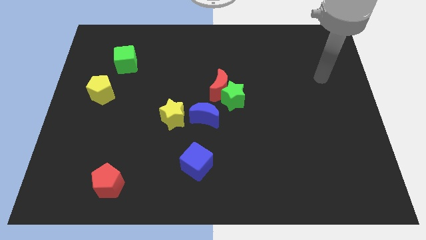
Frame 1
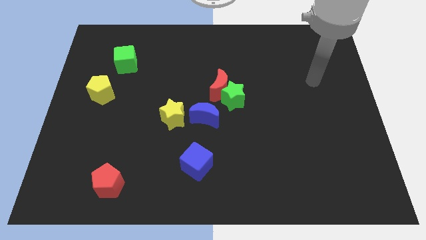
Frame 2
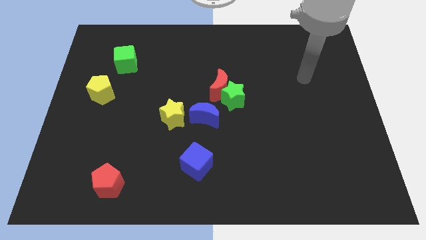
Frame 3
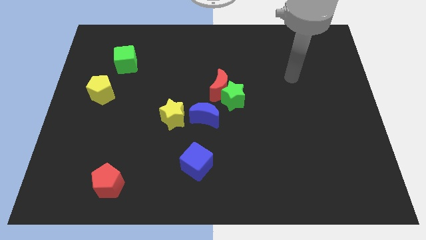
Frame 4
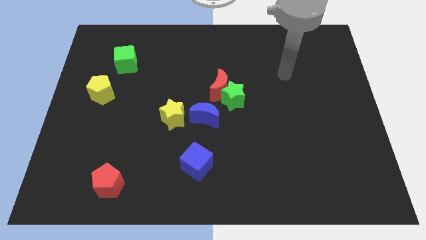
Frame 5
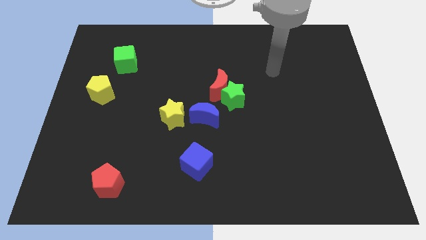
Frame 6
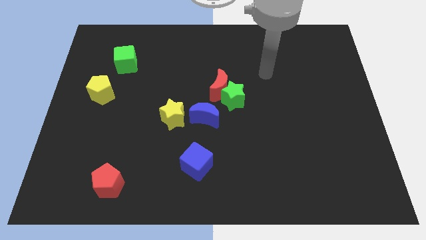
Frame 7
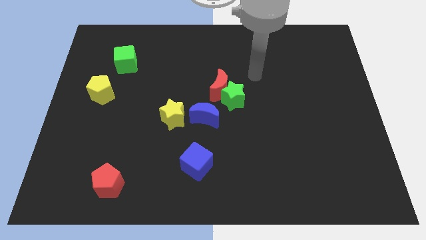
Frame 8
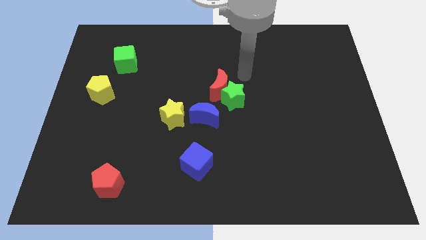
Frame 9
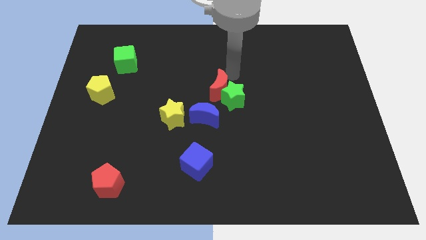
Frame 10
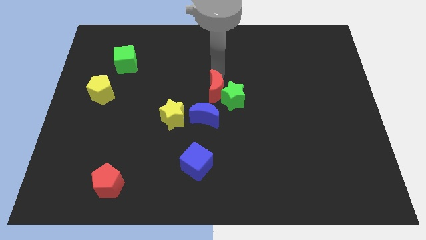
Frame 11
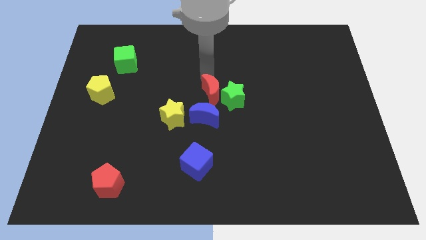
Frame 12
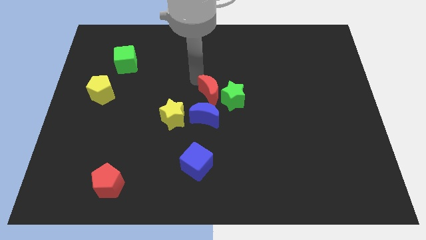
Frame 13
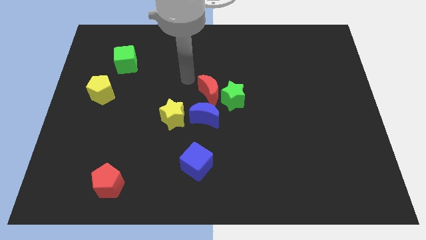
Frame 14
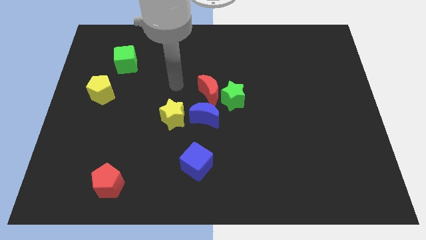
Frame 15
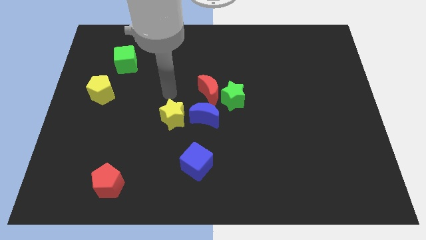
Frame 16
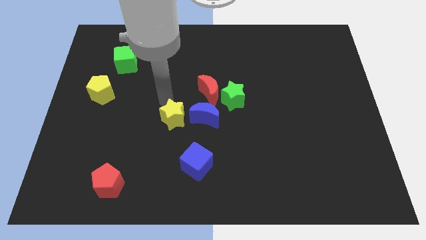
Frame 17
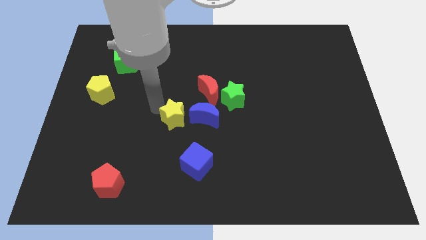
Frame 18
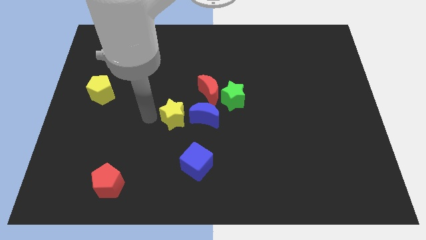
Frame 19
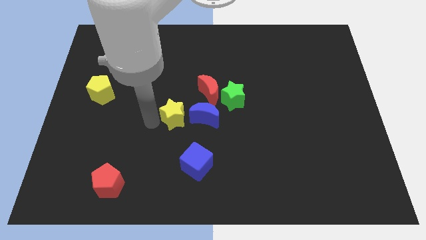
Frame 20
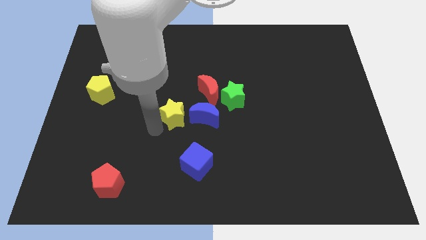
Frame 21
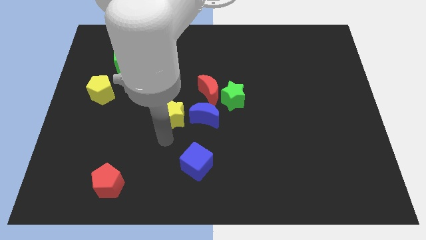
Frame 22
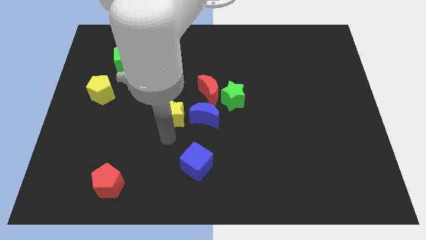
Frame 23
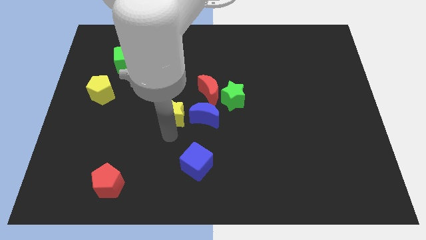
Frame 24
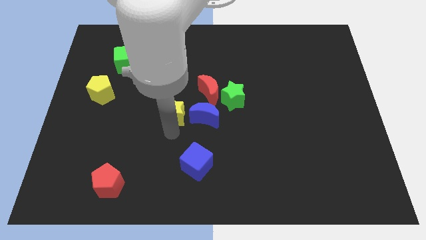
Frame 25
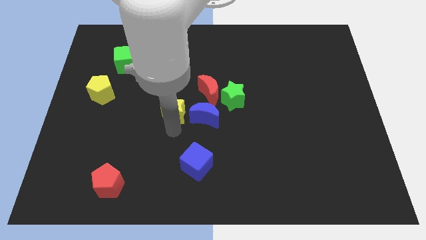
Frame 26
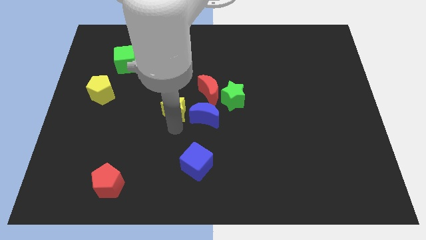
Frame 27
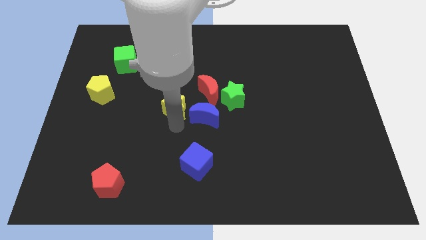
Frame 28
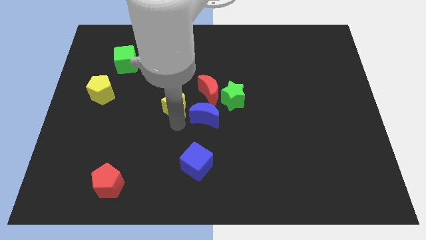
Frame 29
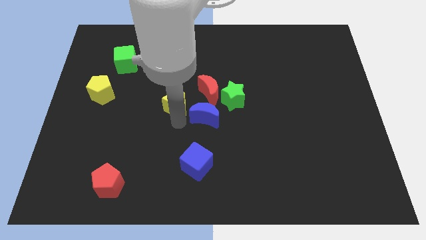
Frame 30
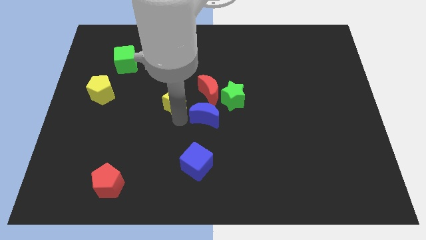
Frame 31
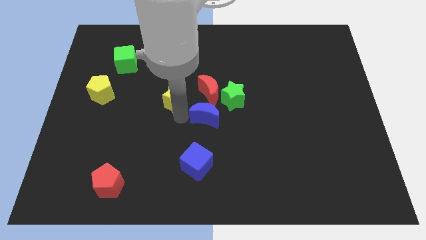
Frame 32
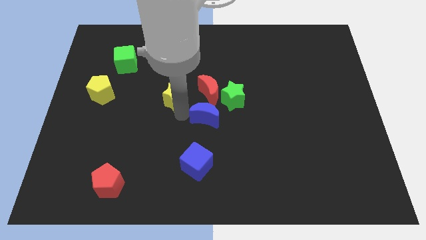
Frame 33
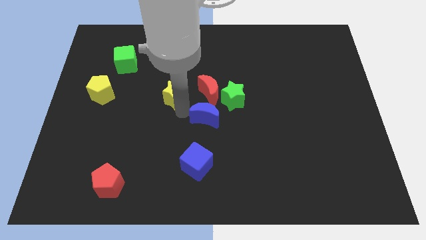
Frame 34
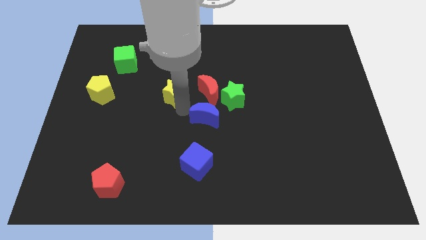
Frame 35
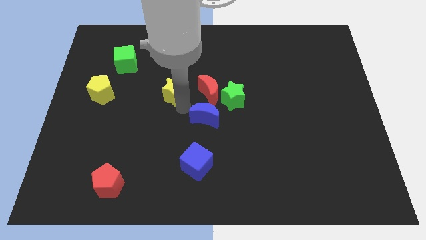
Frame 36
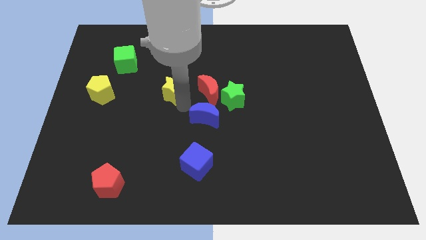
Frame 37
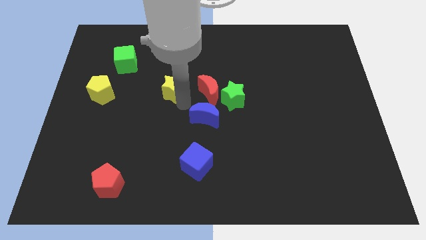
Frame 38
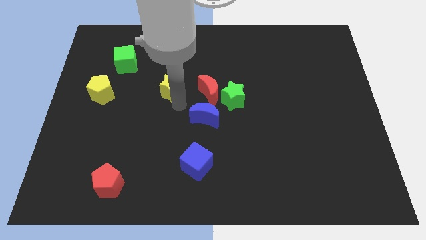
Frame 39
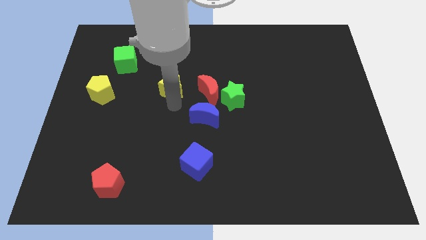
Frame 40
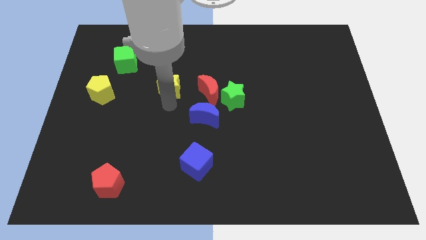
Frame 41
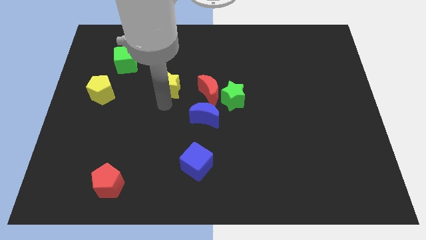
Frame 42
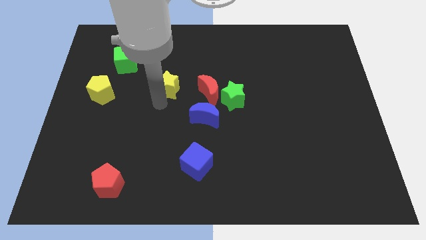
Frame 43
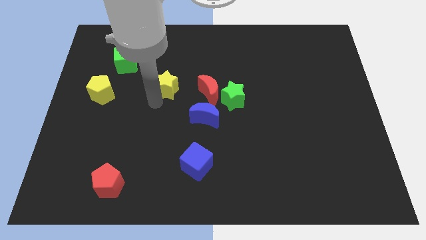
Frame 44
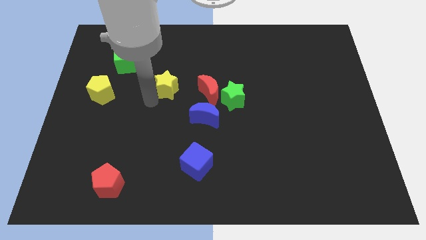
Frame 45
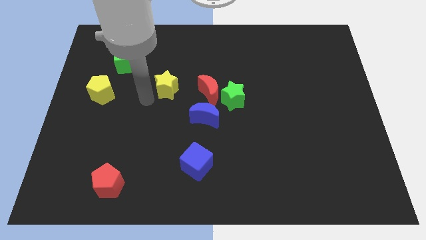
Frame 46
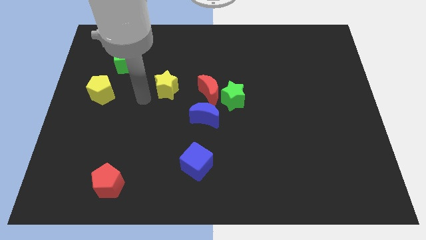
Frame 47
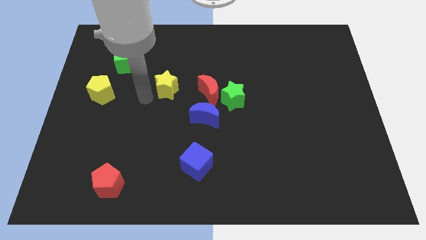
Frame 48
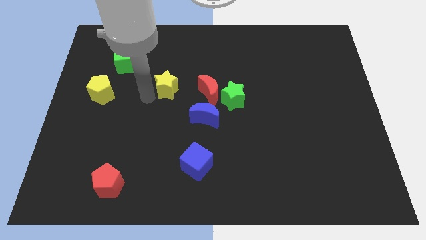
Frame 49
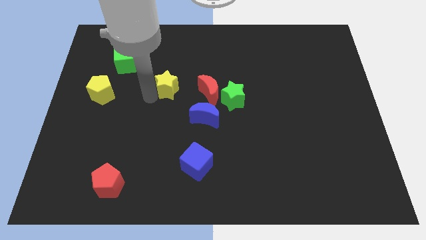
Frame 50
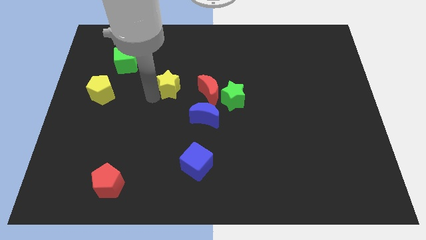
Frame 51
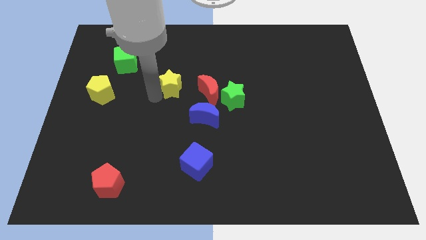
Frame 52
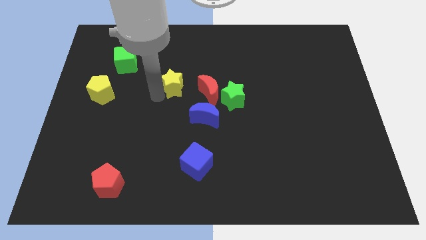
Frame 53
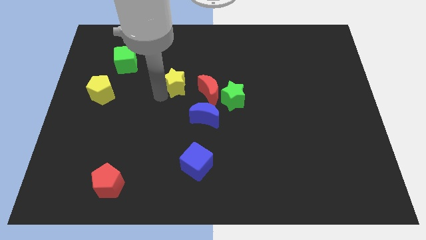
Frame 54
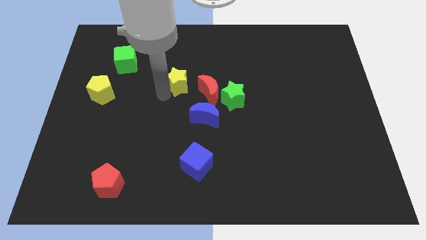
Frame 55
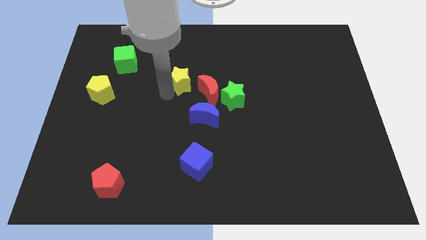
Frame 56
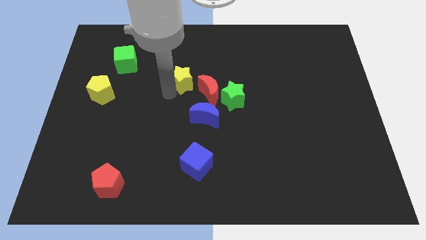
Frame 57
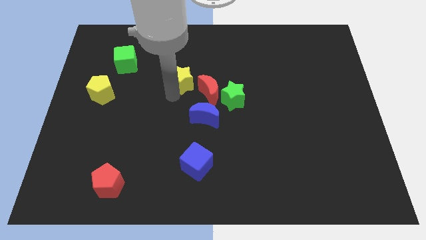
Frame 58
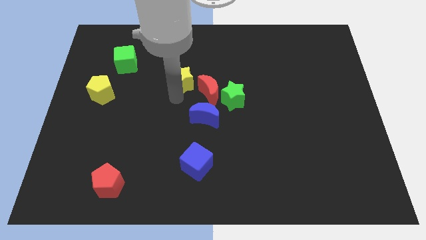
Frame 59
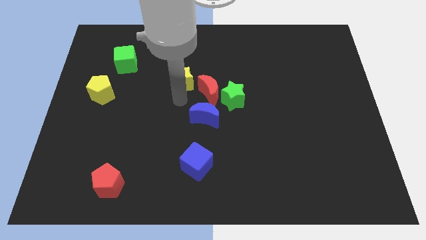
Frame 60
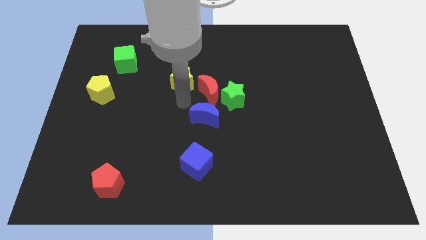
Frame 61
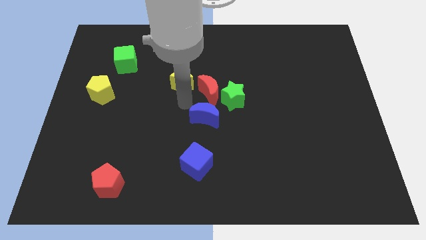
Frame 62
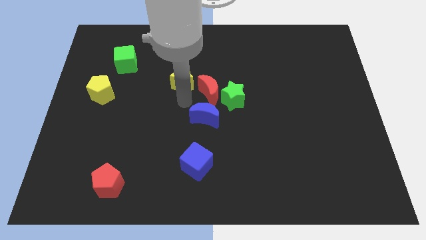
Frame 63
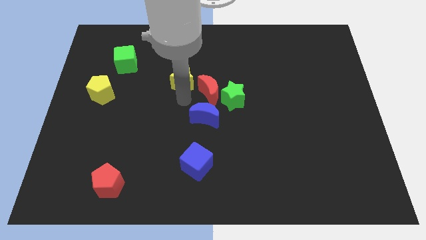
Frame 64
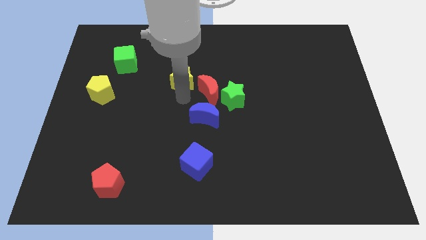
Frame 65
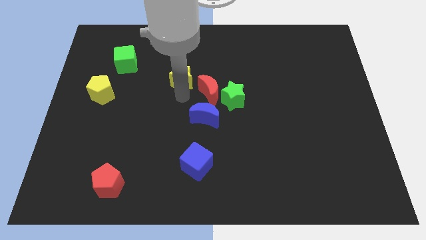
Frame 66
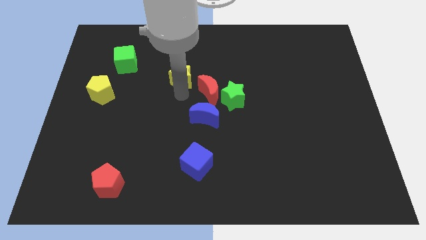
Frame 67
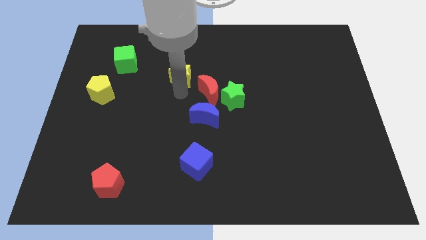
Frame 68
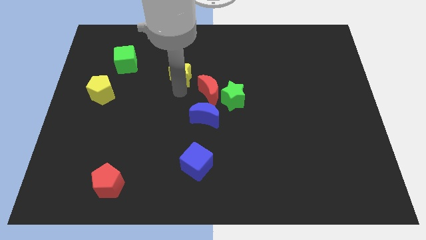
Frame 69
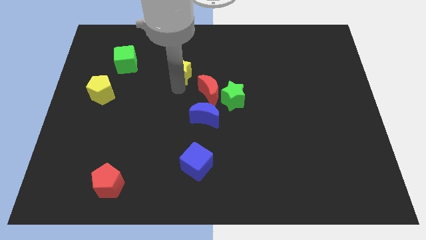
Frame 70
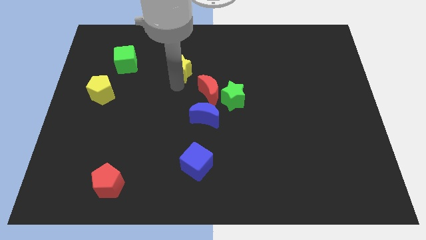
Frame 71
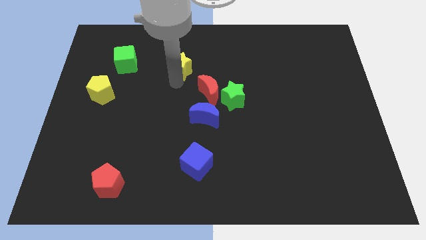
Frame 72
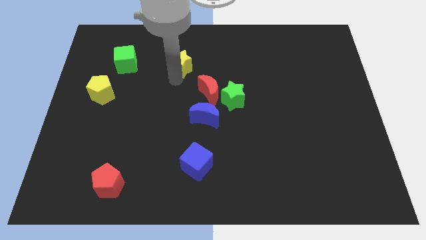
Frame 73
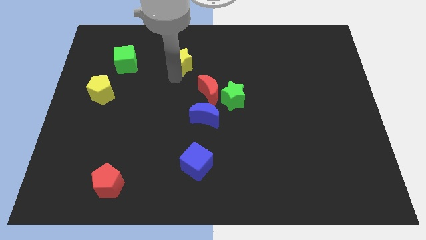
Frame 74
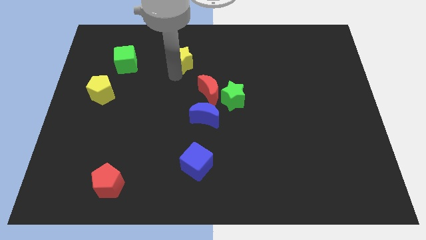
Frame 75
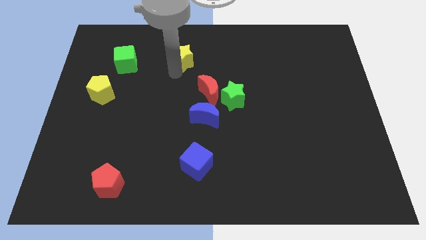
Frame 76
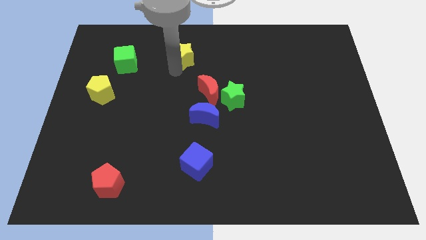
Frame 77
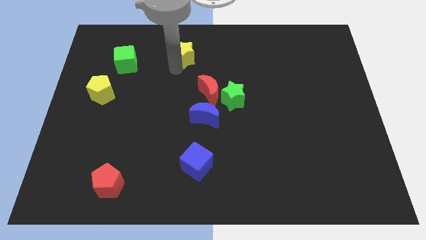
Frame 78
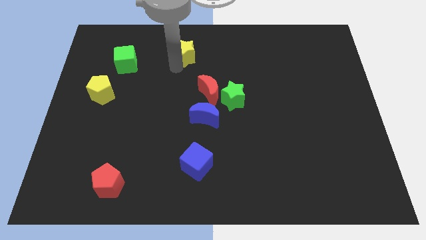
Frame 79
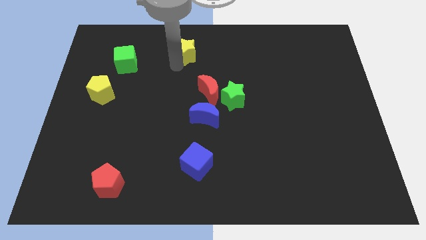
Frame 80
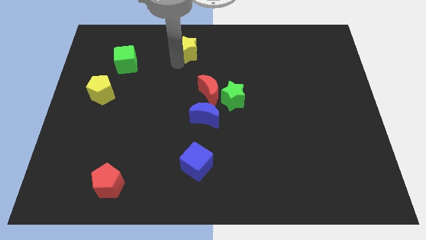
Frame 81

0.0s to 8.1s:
push the yellow star to the towards your base
